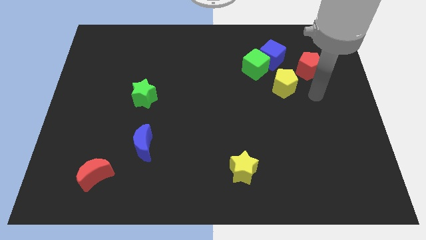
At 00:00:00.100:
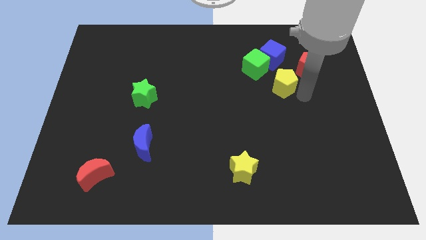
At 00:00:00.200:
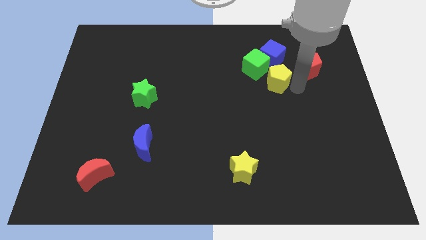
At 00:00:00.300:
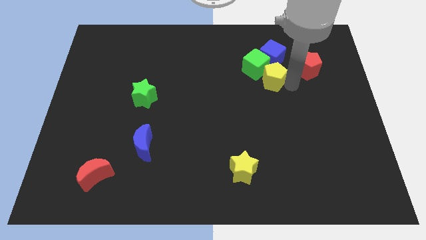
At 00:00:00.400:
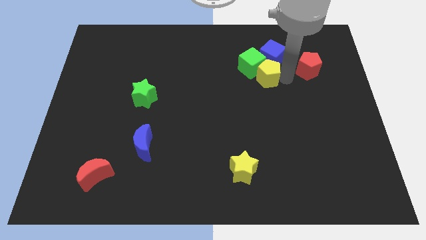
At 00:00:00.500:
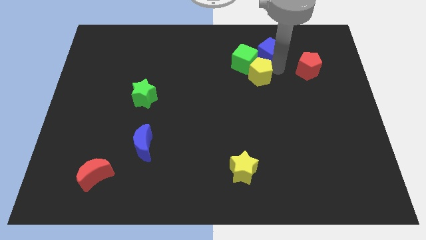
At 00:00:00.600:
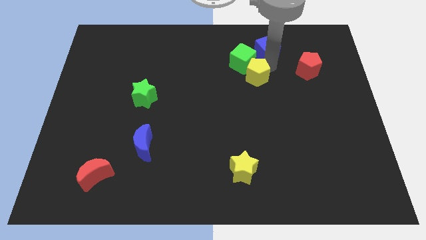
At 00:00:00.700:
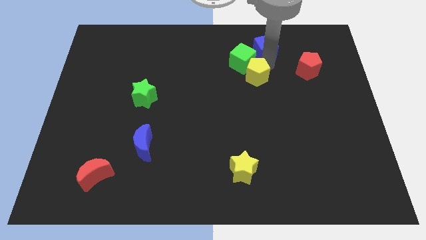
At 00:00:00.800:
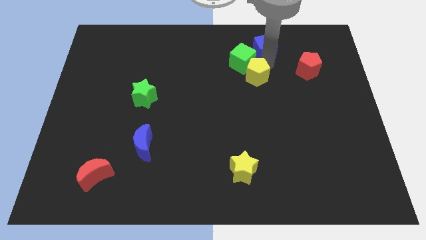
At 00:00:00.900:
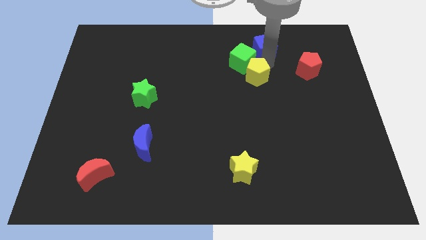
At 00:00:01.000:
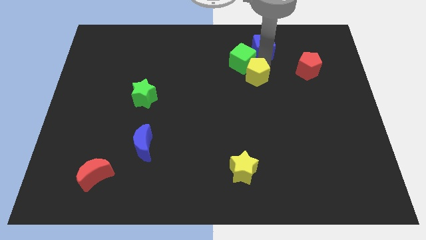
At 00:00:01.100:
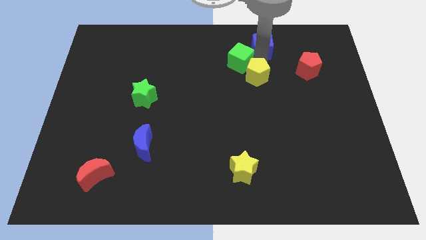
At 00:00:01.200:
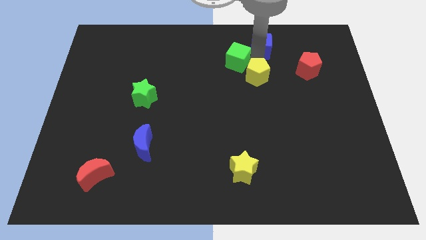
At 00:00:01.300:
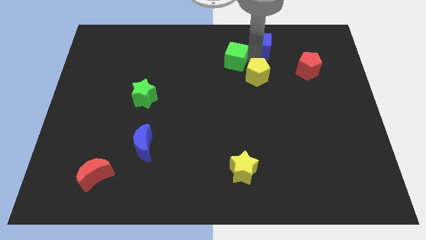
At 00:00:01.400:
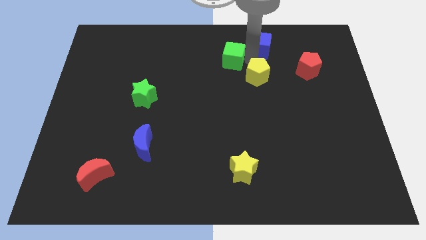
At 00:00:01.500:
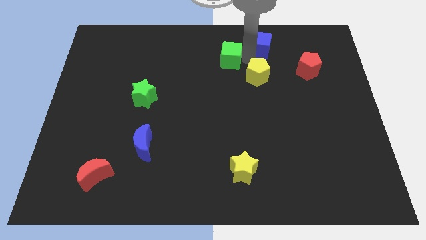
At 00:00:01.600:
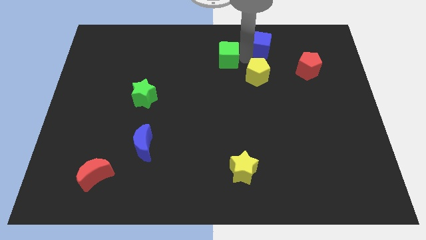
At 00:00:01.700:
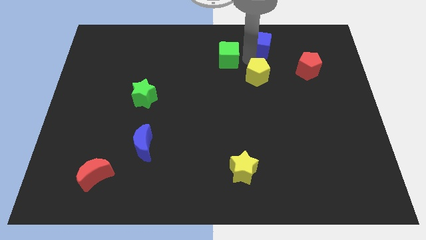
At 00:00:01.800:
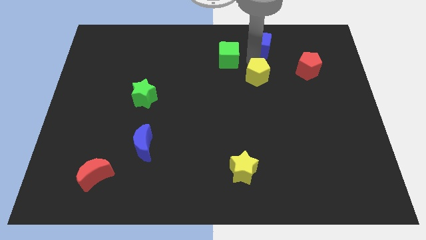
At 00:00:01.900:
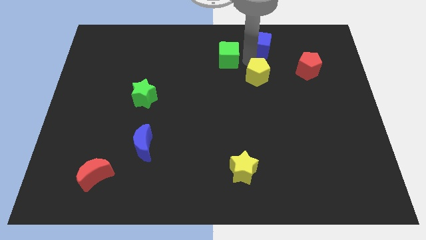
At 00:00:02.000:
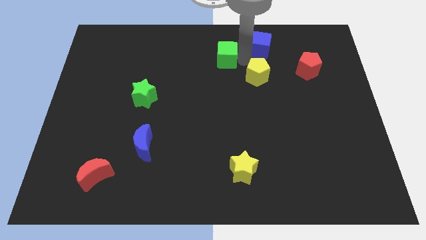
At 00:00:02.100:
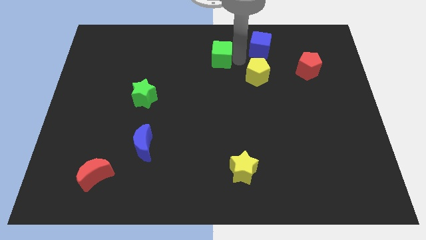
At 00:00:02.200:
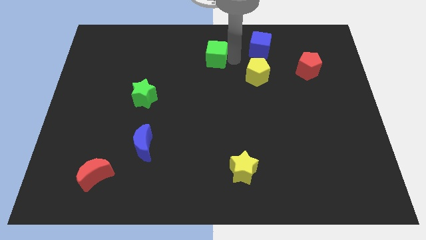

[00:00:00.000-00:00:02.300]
pull the green cube apart from the blue cube and yellow pentagon

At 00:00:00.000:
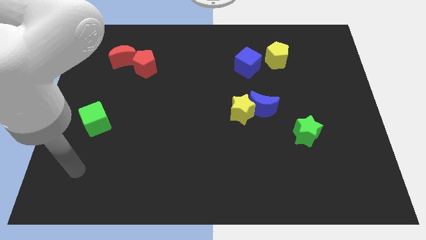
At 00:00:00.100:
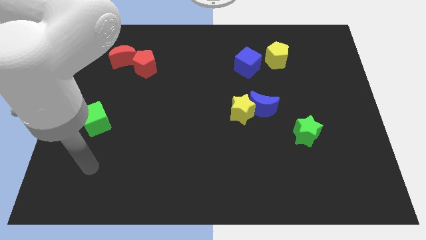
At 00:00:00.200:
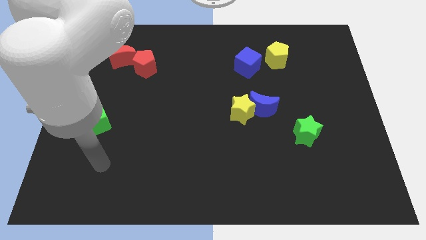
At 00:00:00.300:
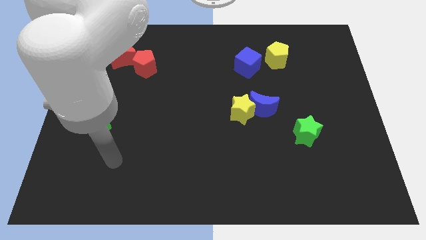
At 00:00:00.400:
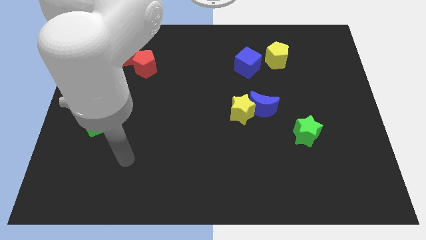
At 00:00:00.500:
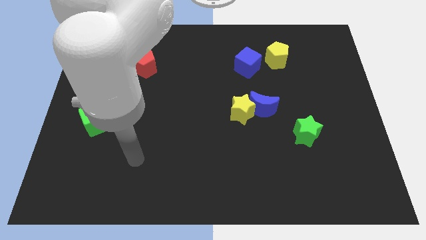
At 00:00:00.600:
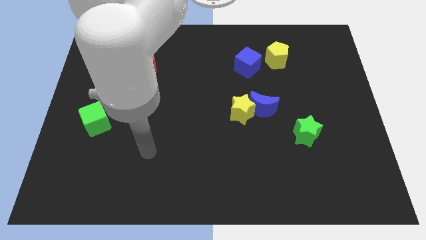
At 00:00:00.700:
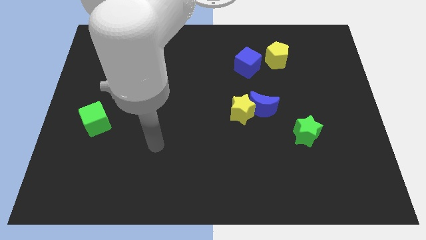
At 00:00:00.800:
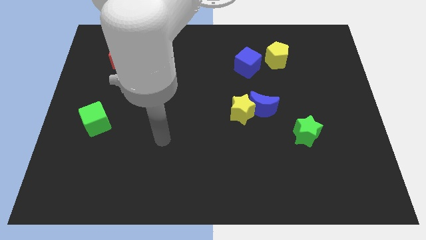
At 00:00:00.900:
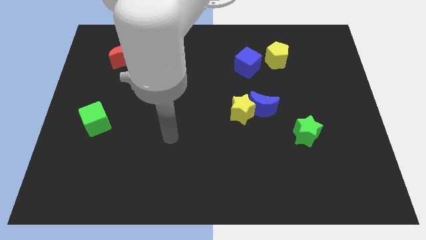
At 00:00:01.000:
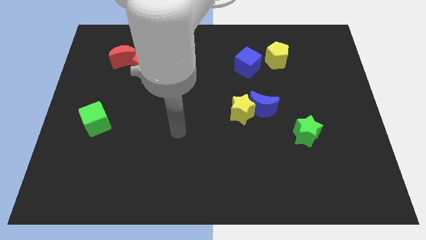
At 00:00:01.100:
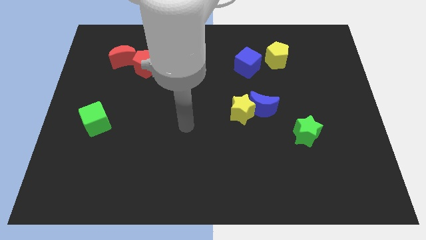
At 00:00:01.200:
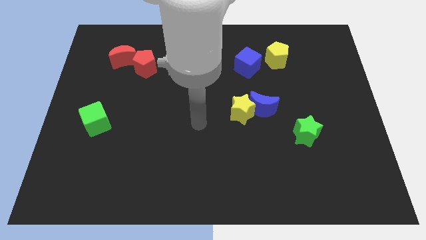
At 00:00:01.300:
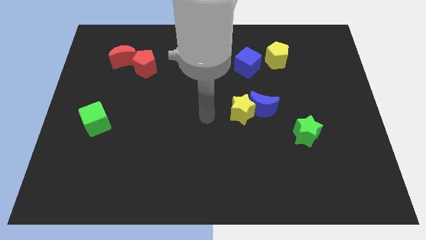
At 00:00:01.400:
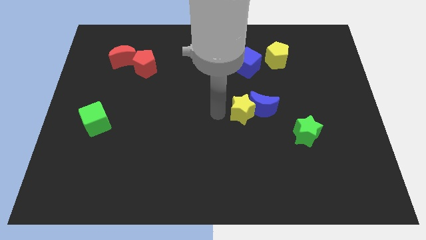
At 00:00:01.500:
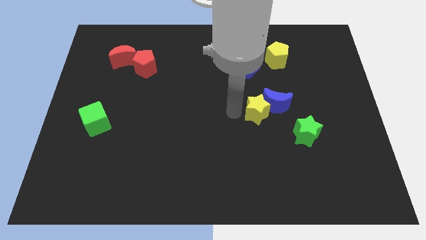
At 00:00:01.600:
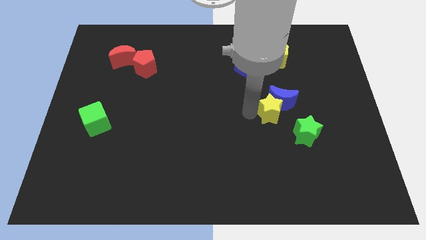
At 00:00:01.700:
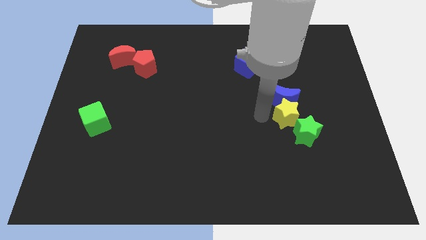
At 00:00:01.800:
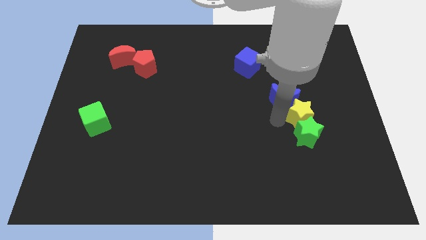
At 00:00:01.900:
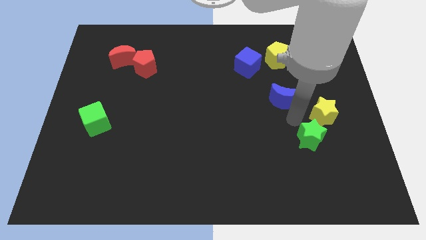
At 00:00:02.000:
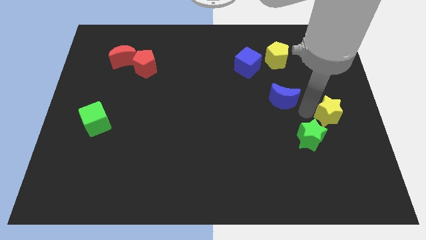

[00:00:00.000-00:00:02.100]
pull the blue moon apart from the yellow star

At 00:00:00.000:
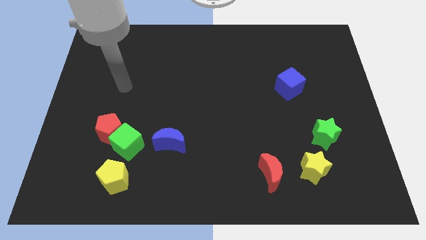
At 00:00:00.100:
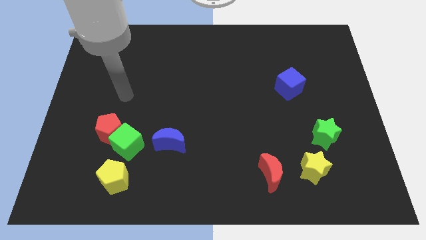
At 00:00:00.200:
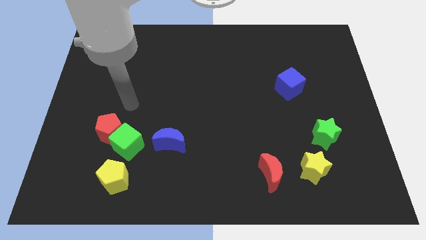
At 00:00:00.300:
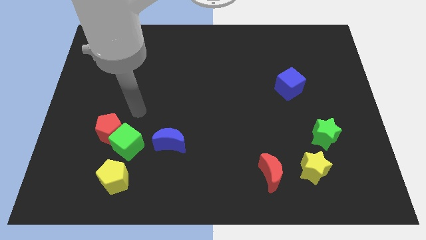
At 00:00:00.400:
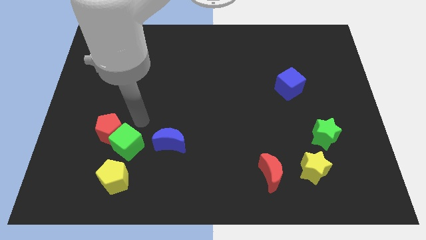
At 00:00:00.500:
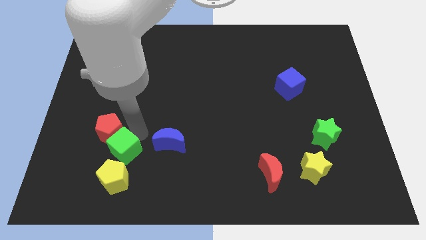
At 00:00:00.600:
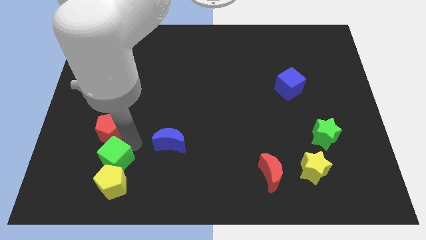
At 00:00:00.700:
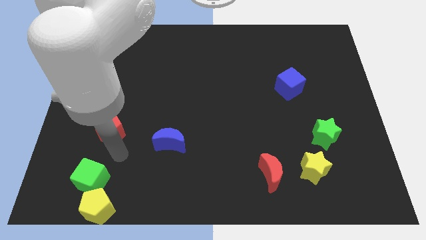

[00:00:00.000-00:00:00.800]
pull the red pentagon apart from the green cube

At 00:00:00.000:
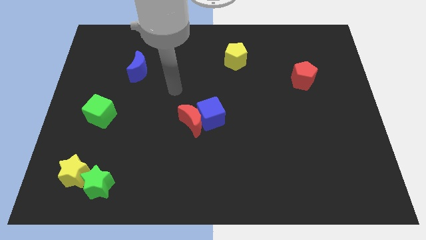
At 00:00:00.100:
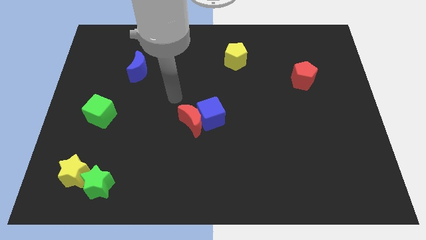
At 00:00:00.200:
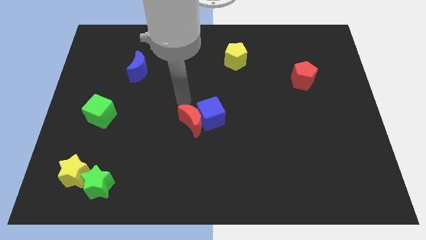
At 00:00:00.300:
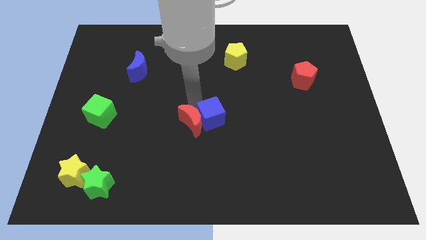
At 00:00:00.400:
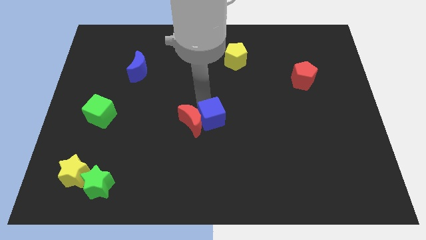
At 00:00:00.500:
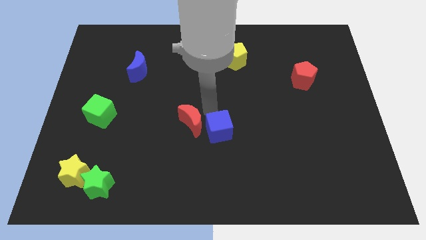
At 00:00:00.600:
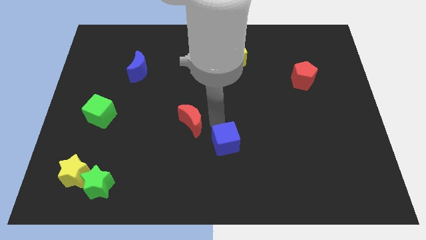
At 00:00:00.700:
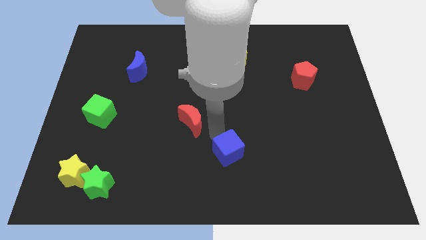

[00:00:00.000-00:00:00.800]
move the red moon away from the blue cube

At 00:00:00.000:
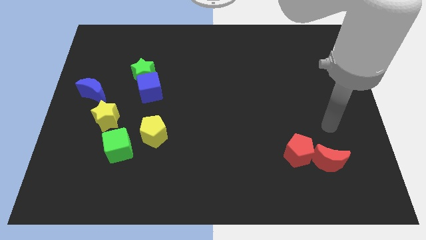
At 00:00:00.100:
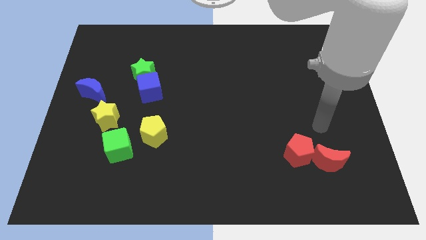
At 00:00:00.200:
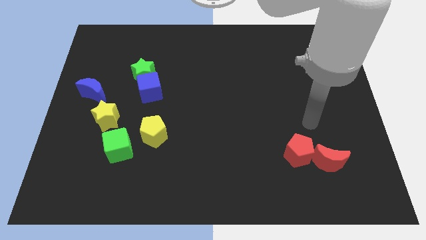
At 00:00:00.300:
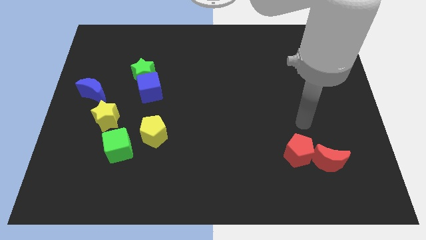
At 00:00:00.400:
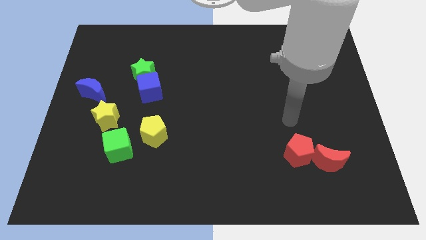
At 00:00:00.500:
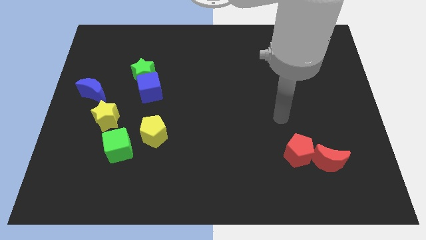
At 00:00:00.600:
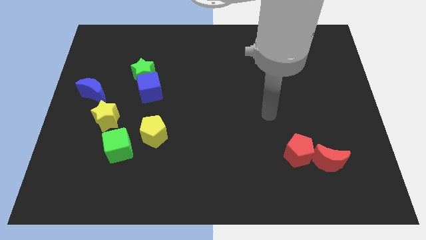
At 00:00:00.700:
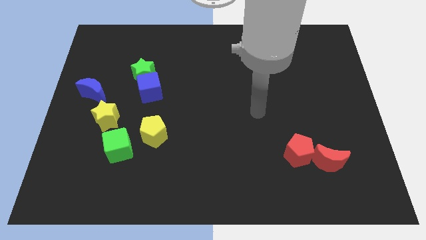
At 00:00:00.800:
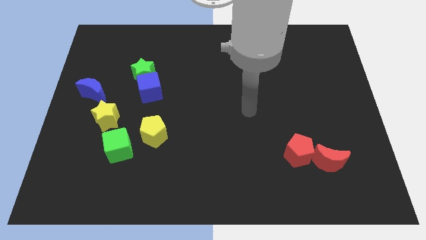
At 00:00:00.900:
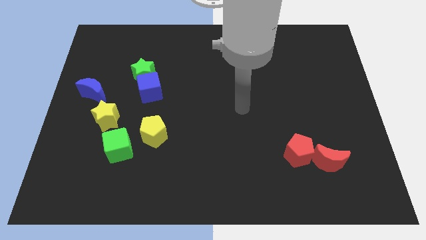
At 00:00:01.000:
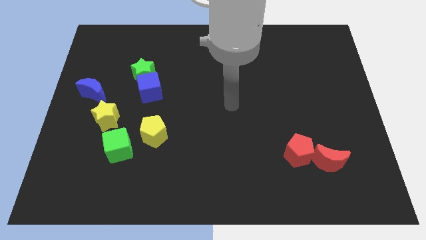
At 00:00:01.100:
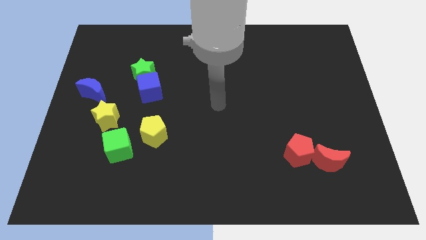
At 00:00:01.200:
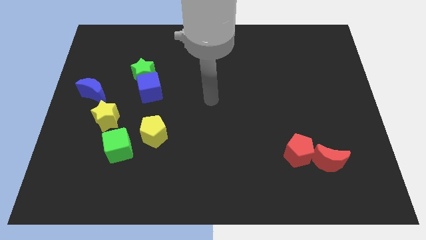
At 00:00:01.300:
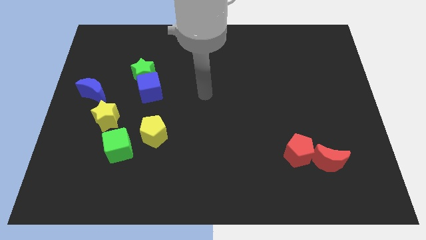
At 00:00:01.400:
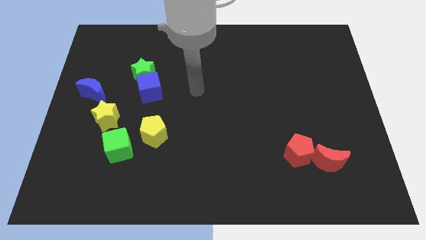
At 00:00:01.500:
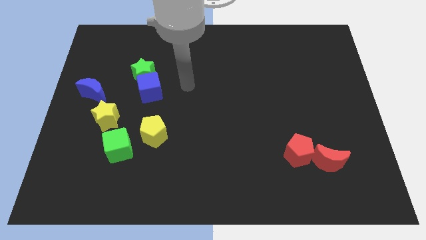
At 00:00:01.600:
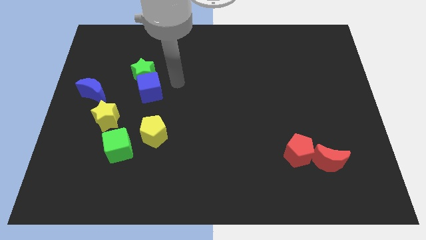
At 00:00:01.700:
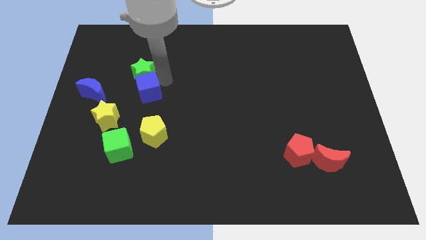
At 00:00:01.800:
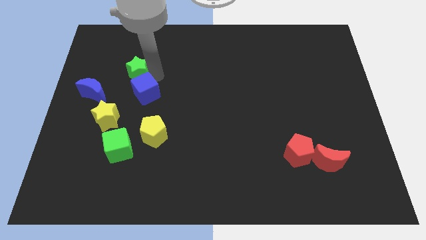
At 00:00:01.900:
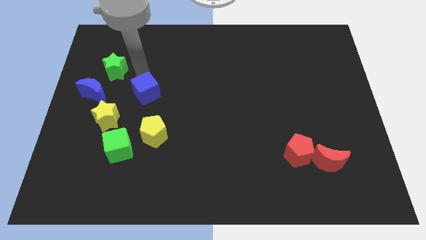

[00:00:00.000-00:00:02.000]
pull the blue cube apart from the green star

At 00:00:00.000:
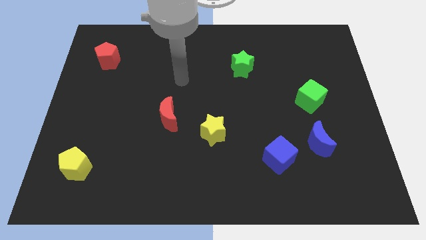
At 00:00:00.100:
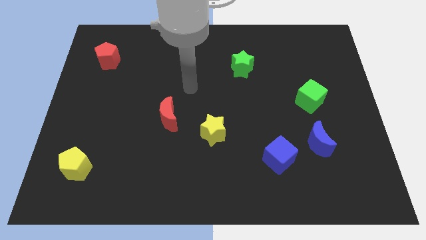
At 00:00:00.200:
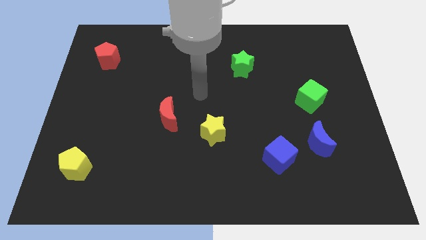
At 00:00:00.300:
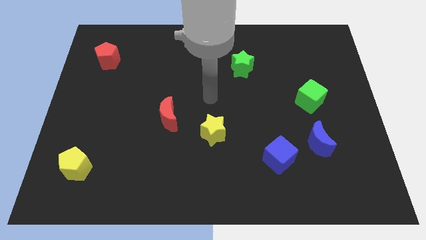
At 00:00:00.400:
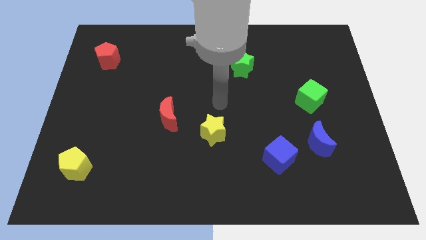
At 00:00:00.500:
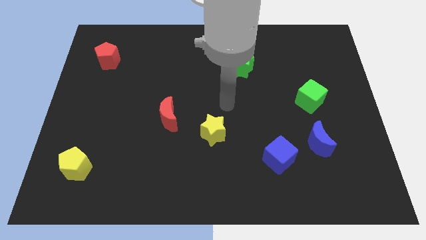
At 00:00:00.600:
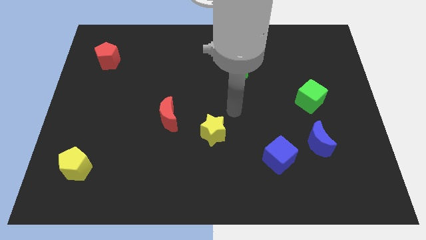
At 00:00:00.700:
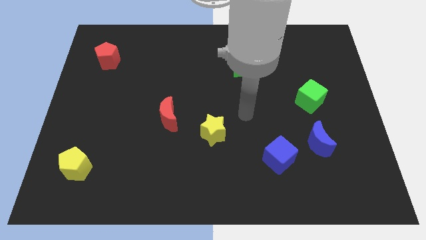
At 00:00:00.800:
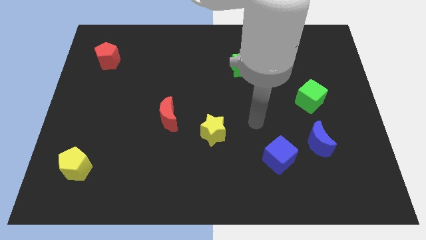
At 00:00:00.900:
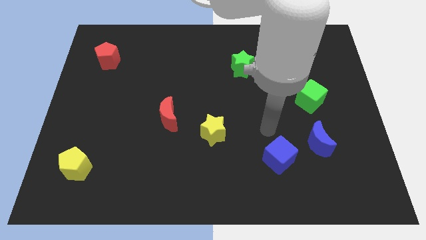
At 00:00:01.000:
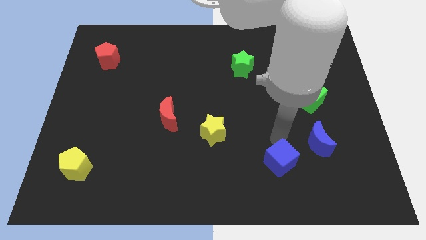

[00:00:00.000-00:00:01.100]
separate the blue moon from the blue cube

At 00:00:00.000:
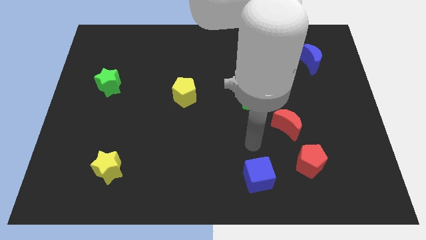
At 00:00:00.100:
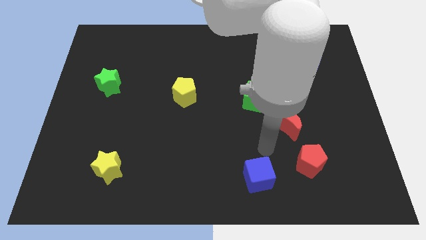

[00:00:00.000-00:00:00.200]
move the red pentagon away from the red moon
